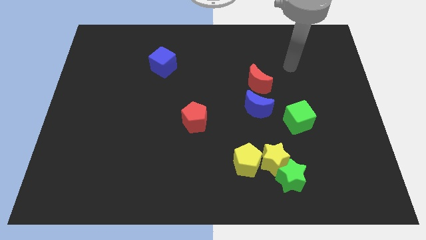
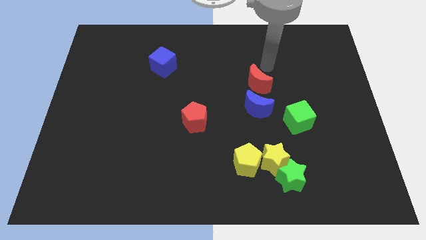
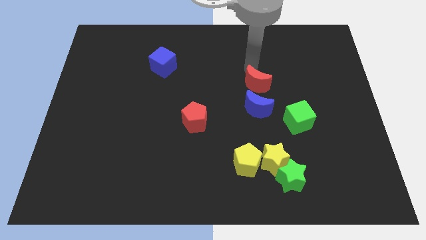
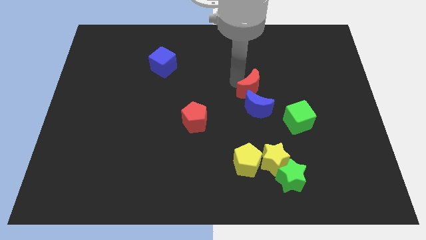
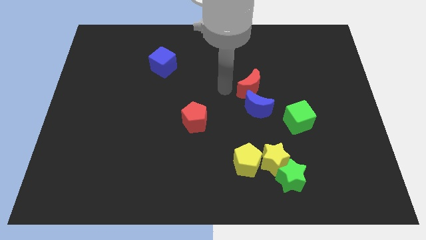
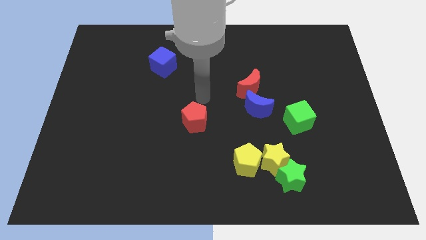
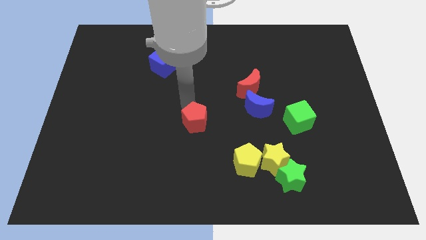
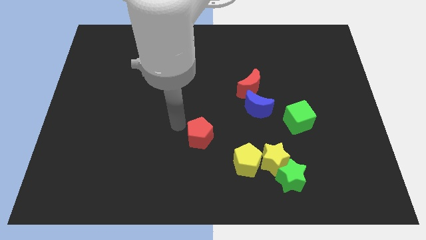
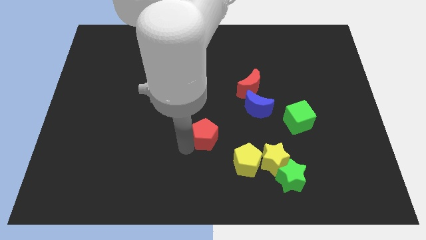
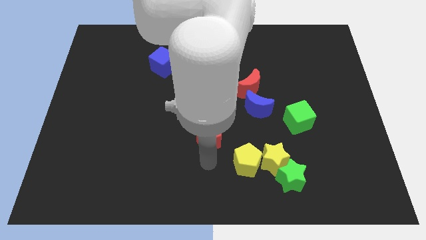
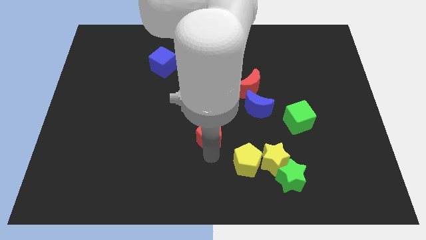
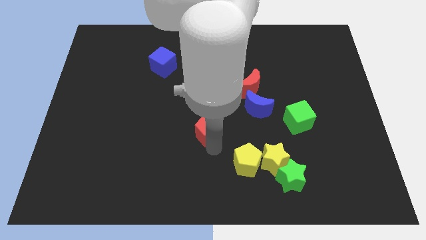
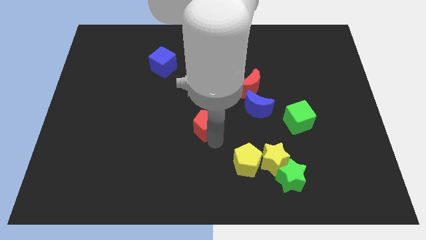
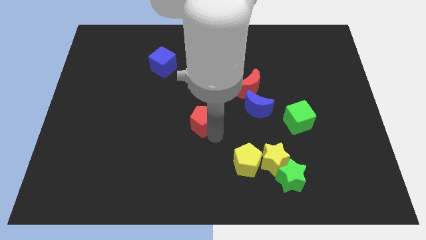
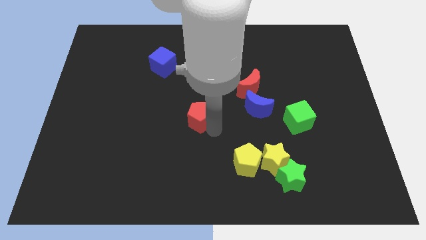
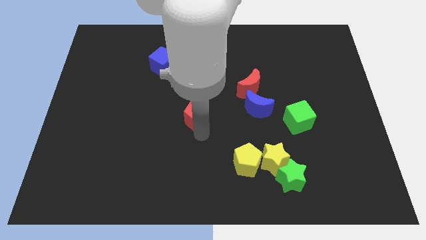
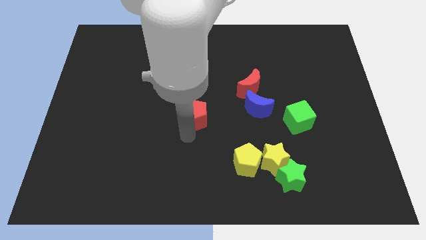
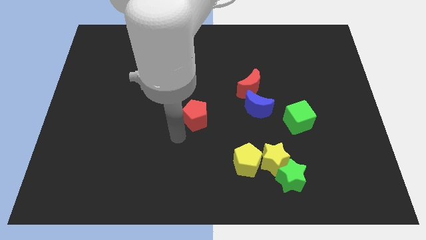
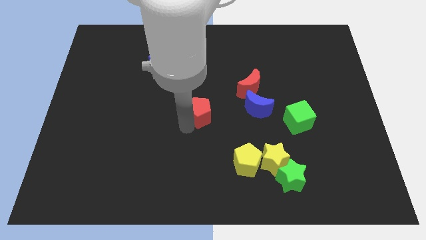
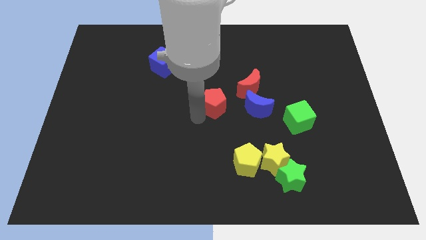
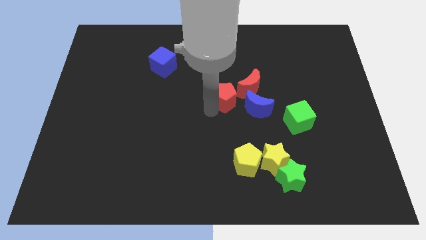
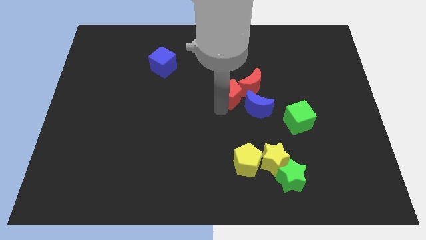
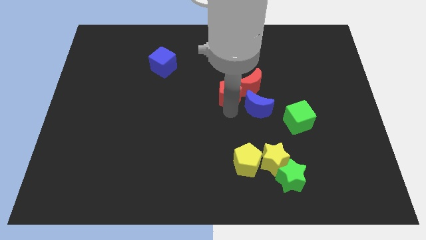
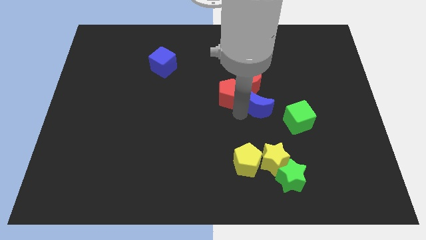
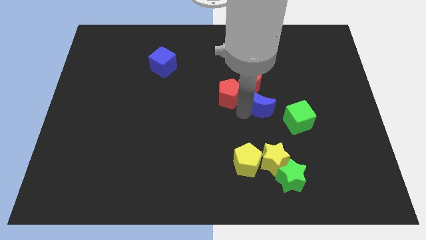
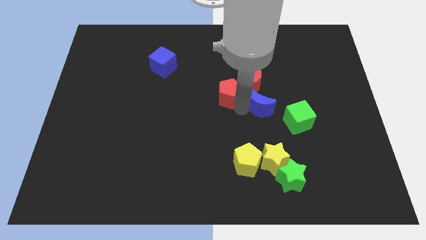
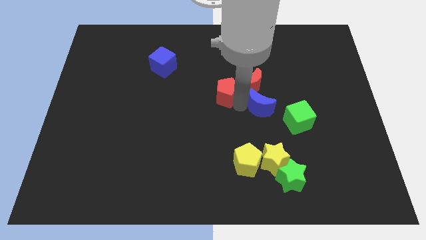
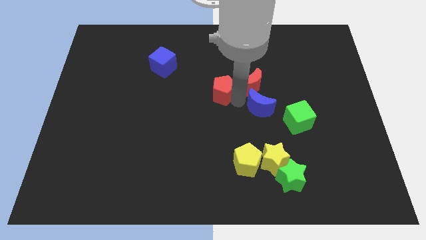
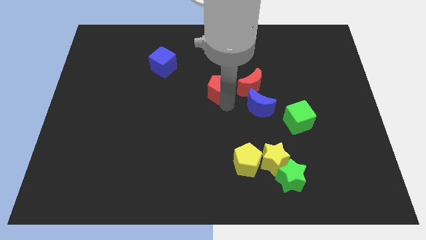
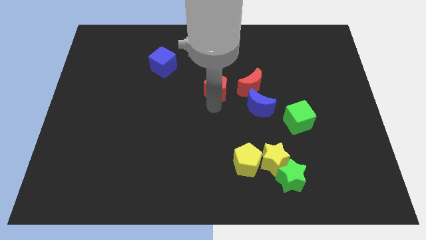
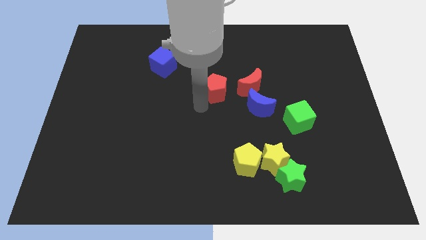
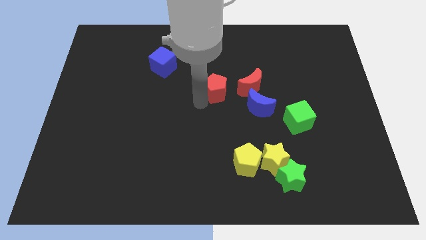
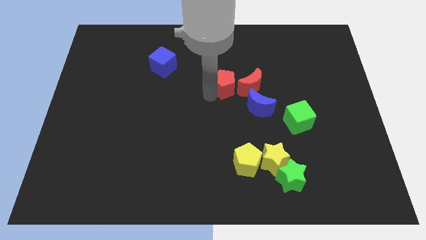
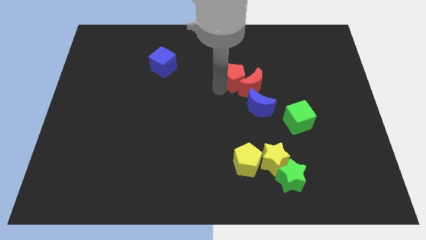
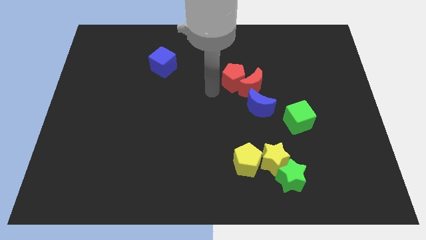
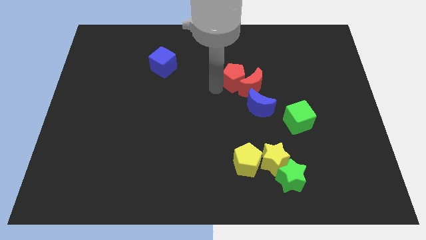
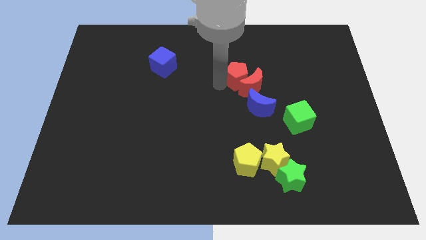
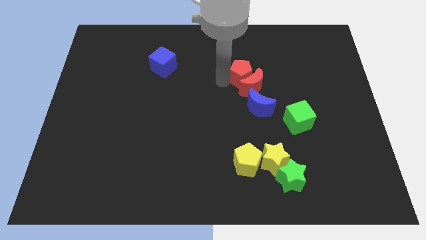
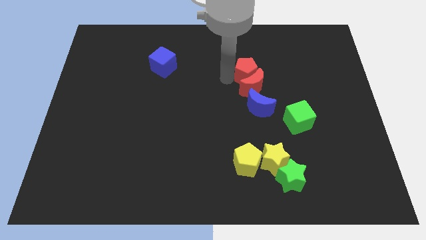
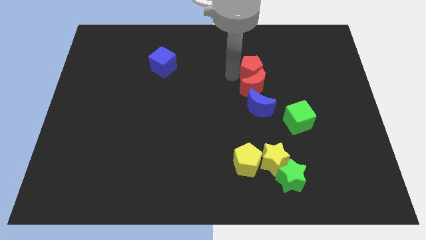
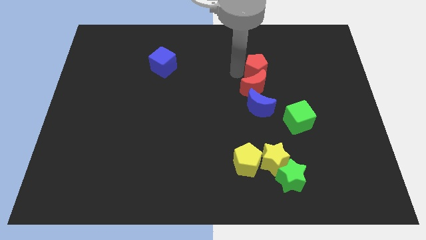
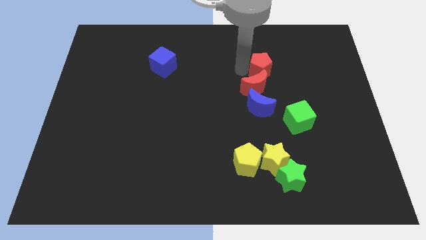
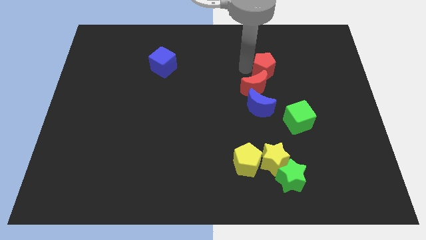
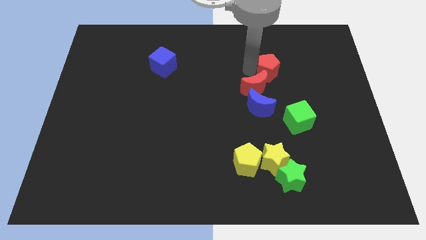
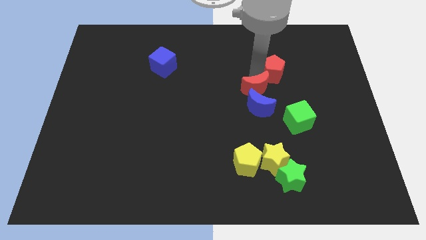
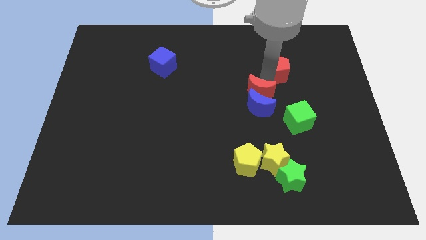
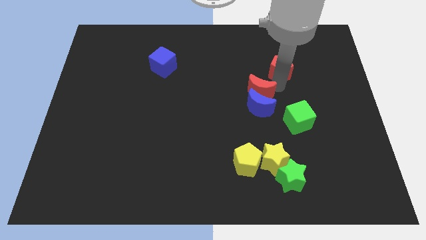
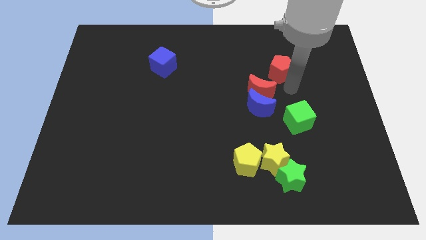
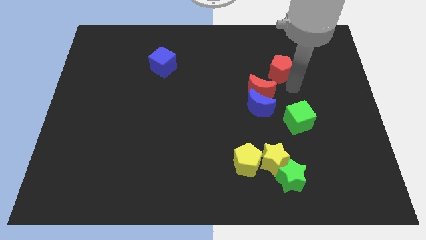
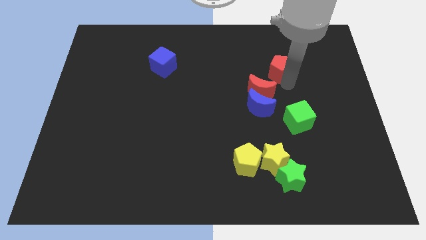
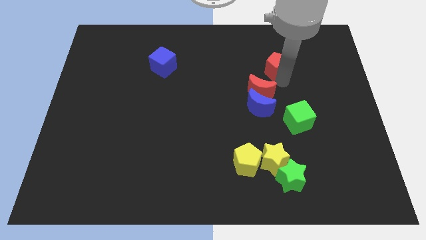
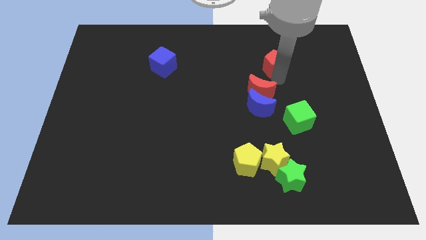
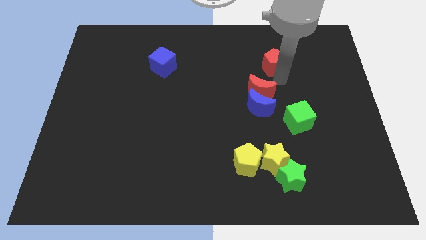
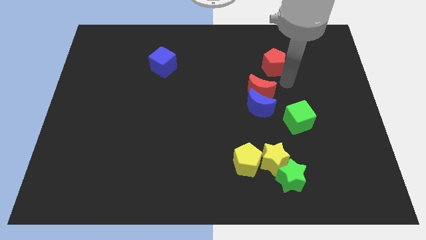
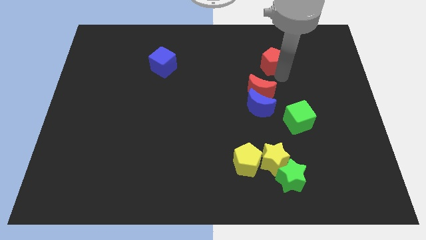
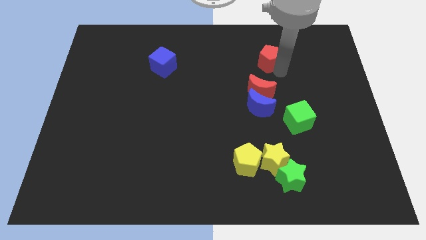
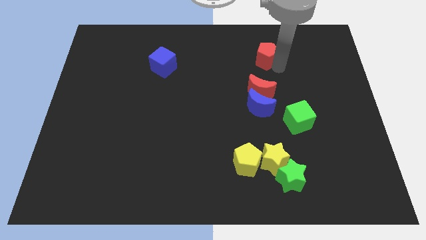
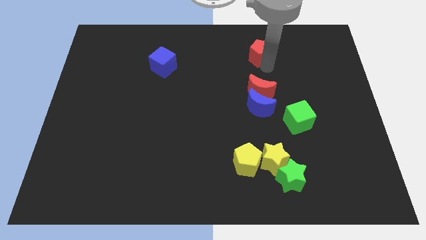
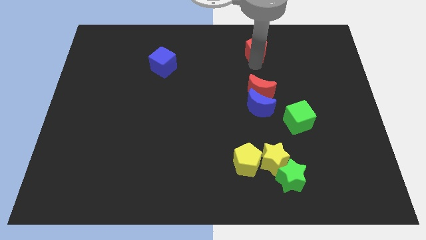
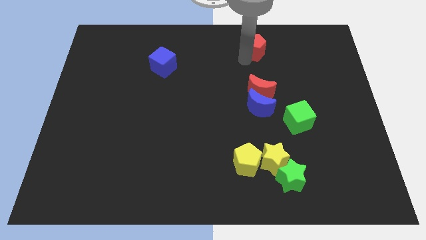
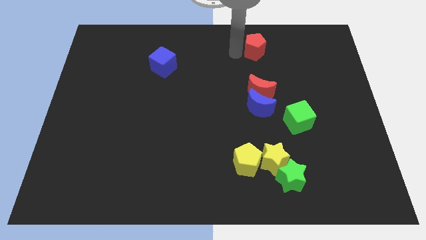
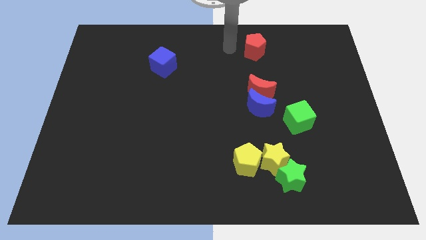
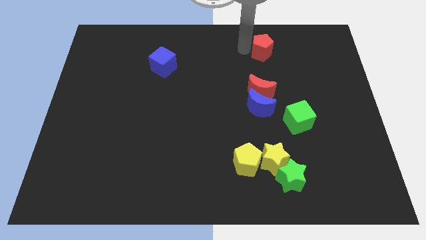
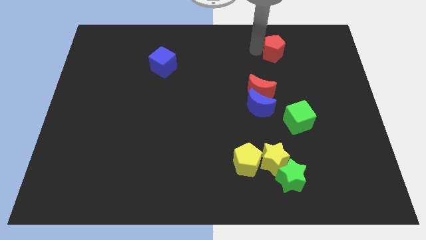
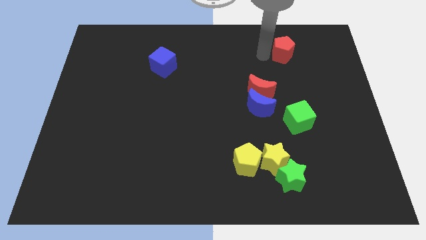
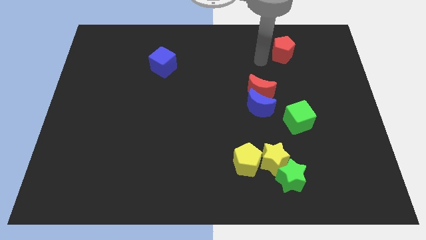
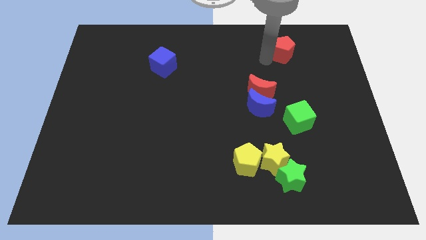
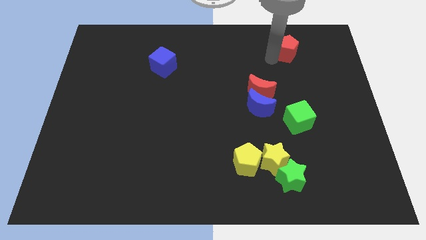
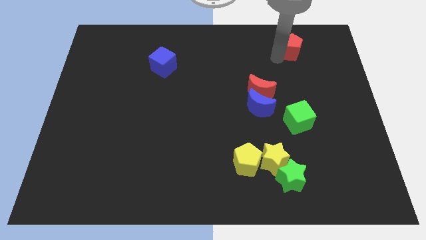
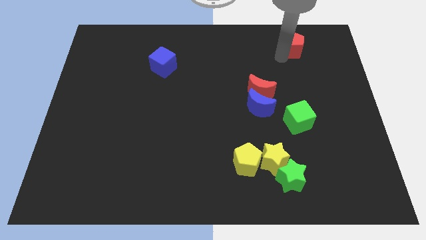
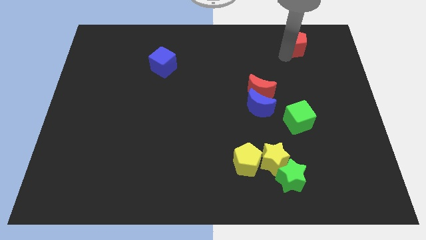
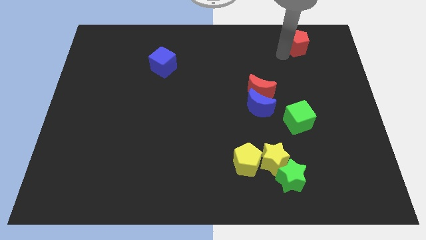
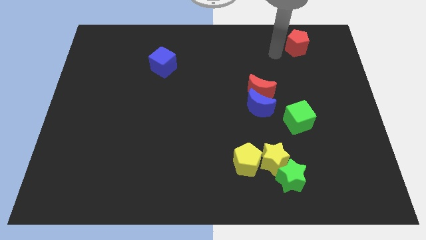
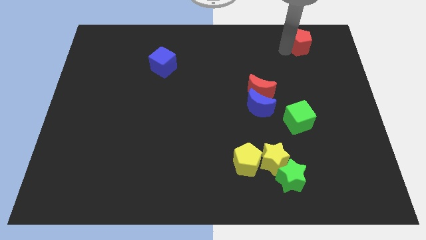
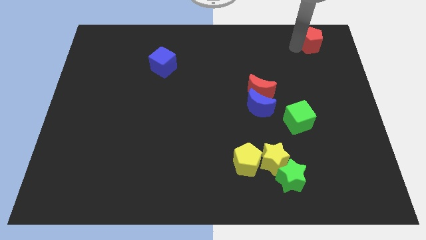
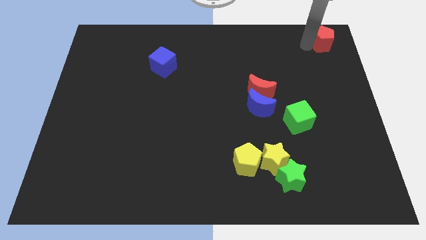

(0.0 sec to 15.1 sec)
move the red pentagon to the upper right corner
